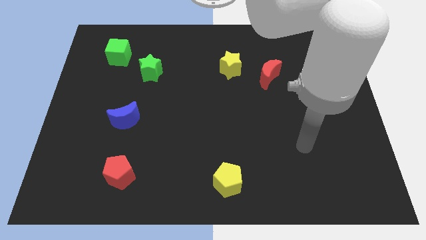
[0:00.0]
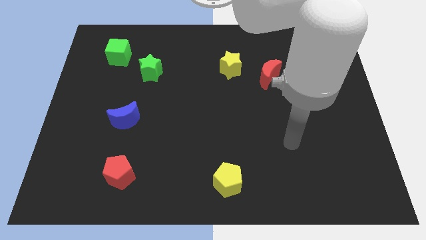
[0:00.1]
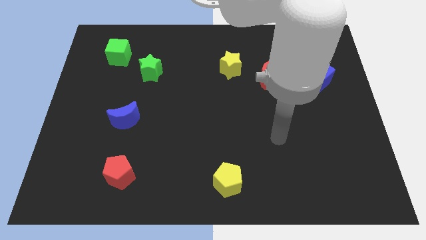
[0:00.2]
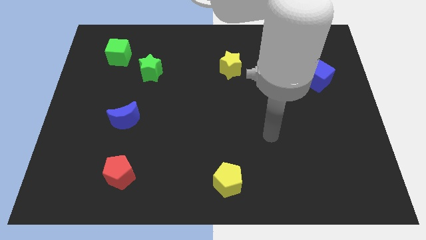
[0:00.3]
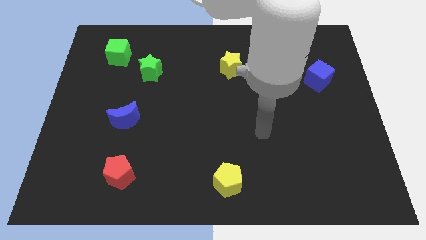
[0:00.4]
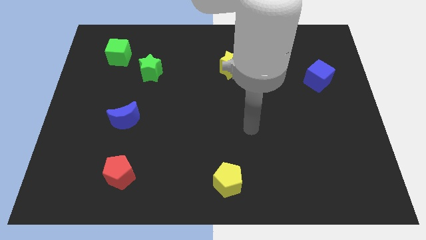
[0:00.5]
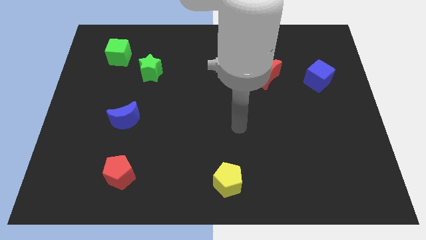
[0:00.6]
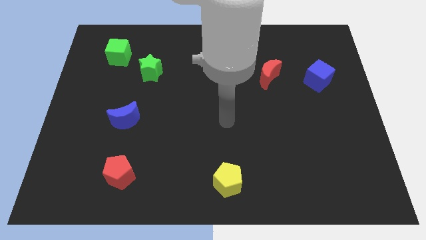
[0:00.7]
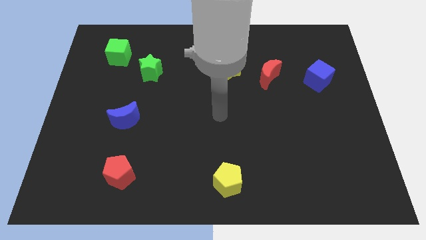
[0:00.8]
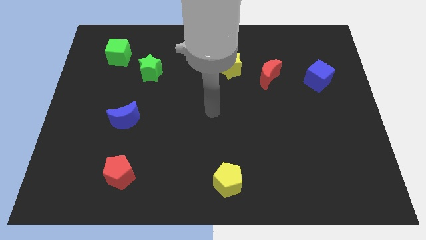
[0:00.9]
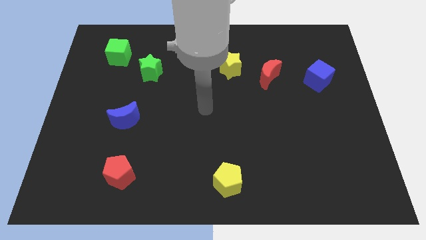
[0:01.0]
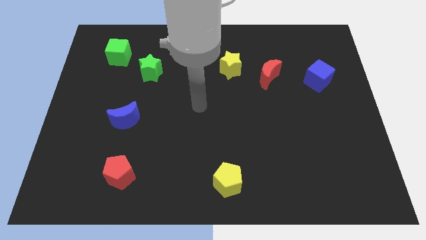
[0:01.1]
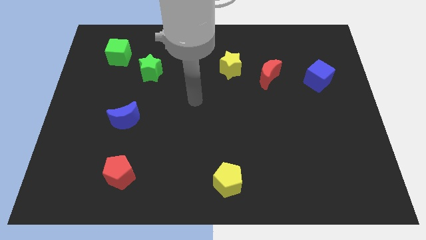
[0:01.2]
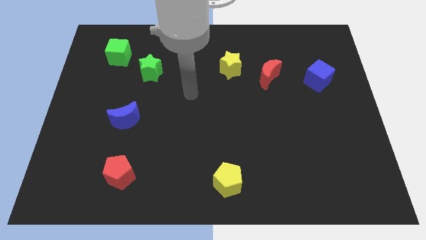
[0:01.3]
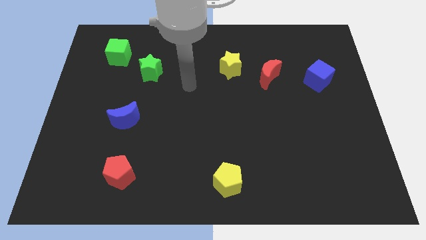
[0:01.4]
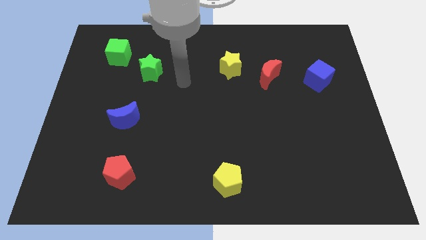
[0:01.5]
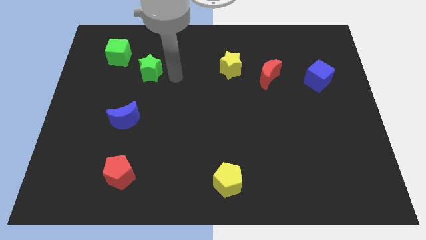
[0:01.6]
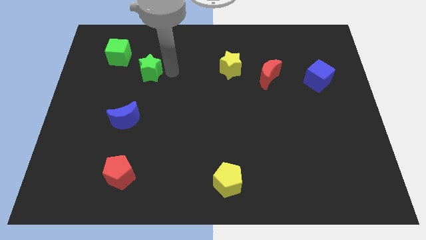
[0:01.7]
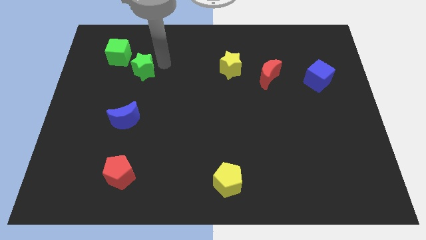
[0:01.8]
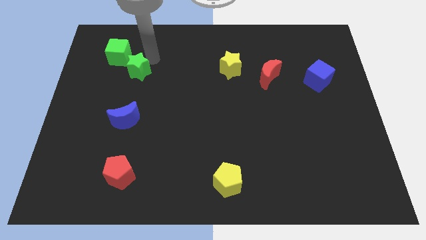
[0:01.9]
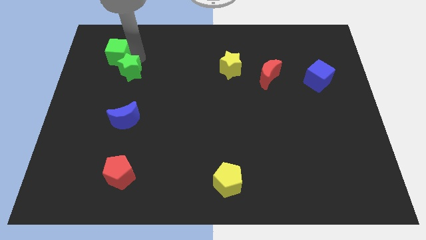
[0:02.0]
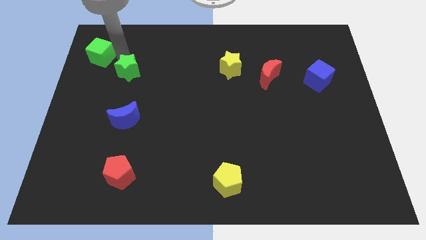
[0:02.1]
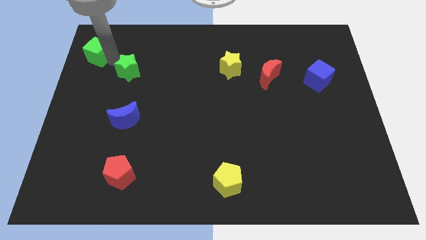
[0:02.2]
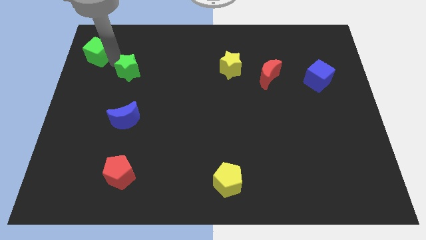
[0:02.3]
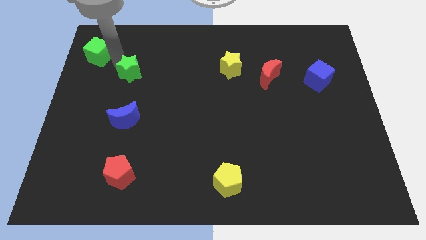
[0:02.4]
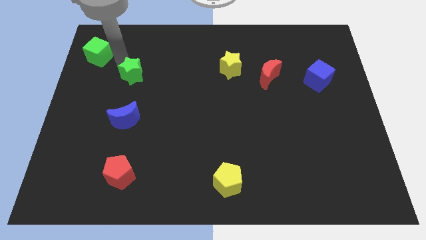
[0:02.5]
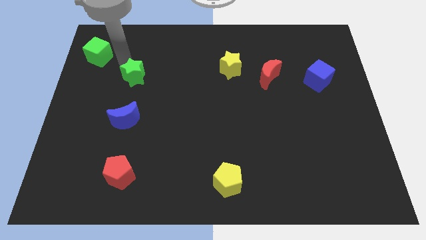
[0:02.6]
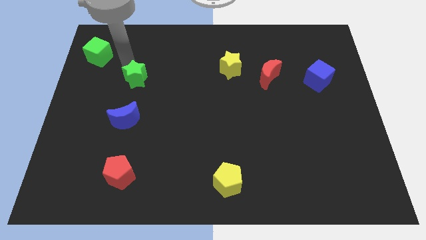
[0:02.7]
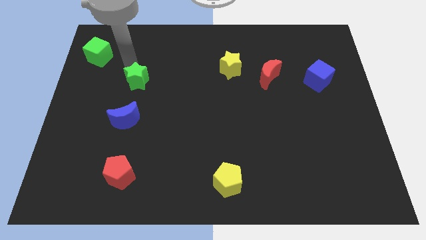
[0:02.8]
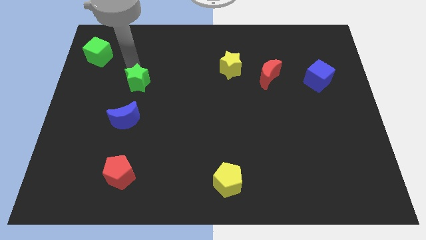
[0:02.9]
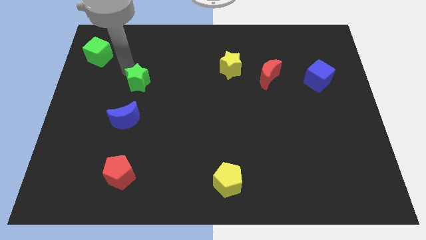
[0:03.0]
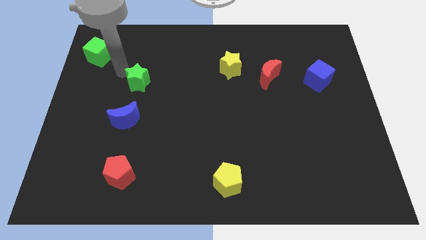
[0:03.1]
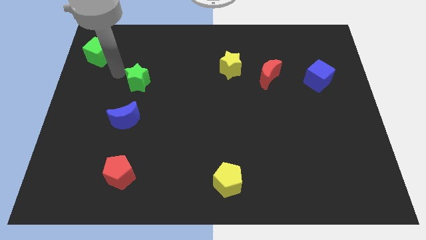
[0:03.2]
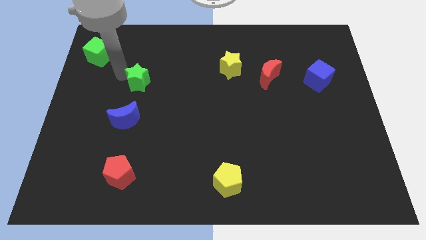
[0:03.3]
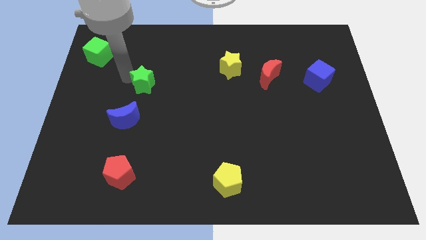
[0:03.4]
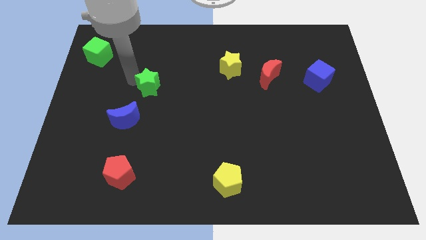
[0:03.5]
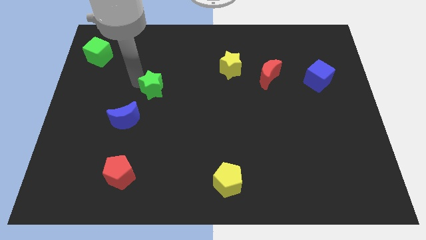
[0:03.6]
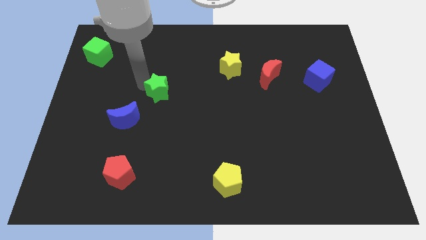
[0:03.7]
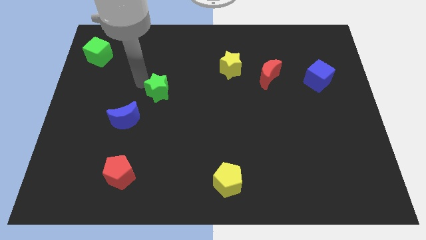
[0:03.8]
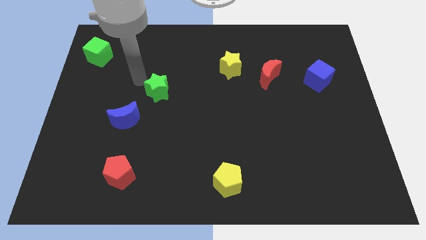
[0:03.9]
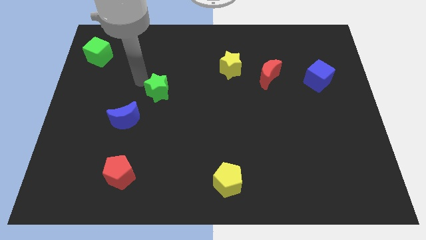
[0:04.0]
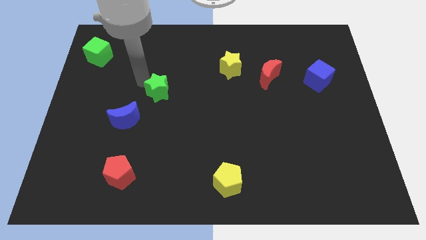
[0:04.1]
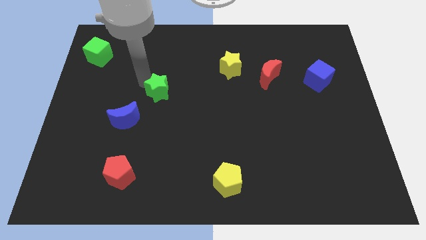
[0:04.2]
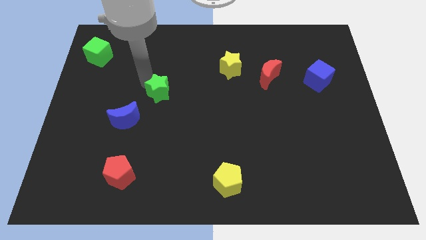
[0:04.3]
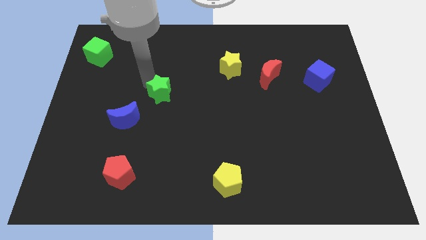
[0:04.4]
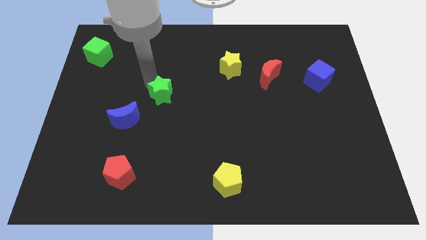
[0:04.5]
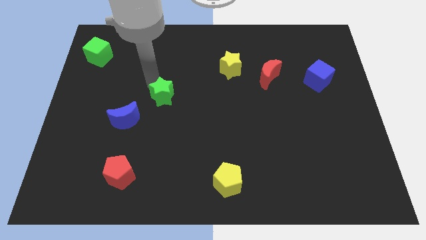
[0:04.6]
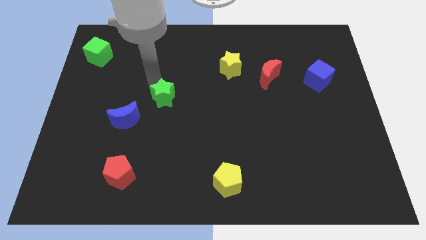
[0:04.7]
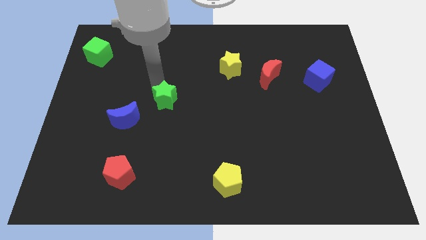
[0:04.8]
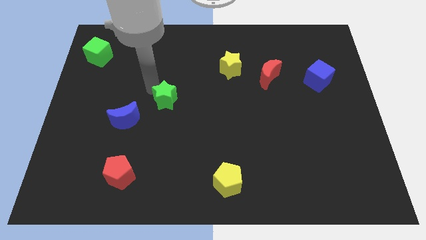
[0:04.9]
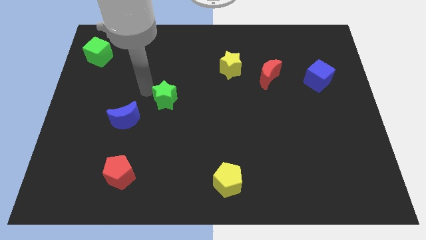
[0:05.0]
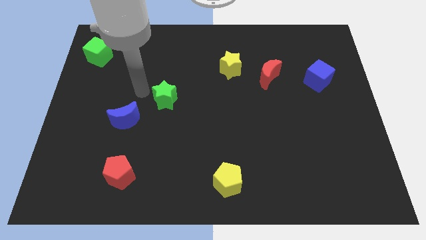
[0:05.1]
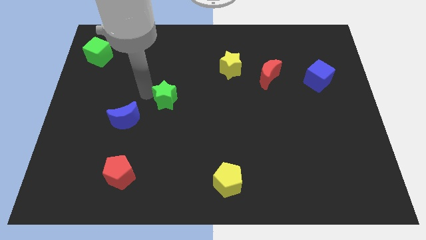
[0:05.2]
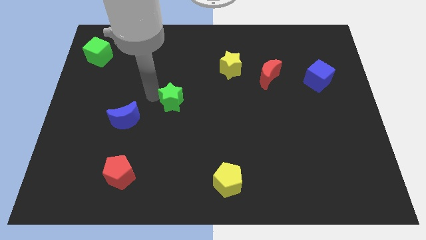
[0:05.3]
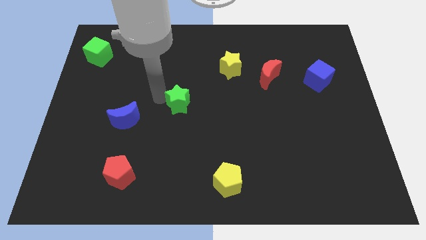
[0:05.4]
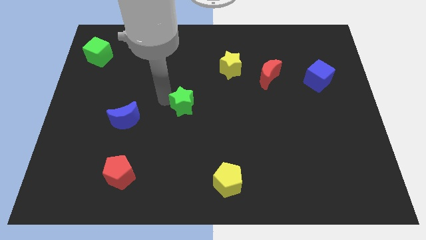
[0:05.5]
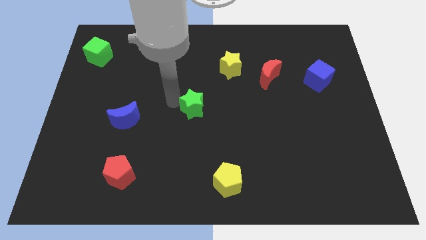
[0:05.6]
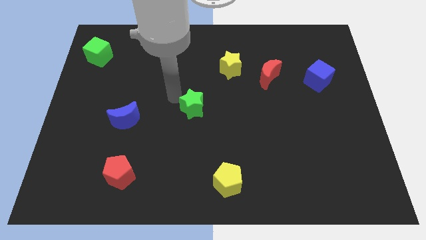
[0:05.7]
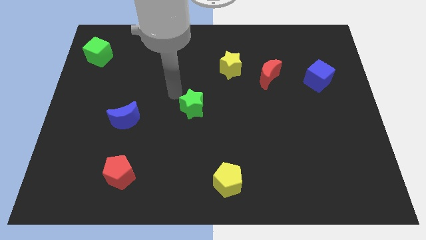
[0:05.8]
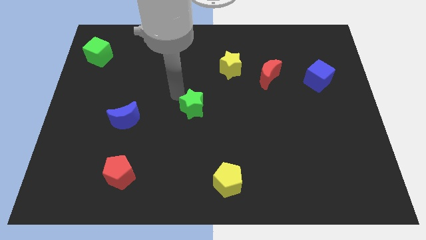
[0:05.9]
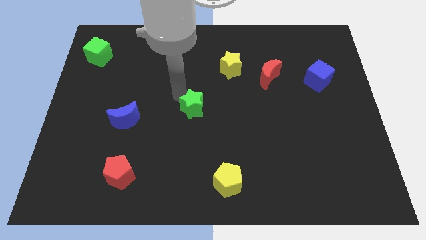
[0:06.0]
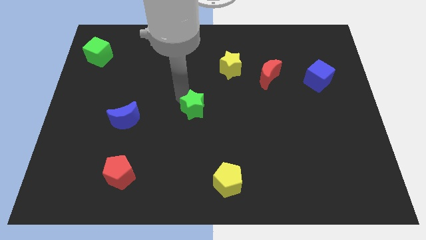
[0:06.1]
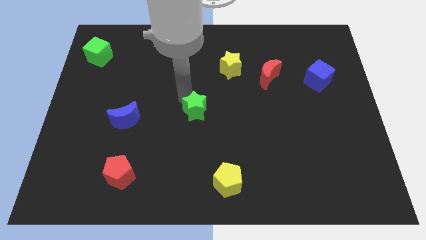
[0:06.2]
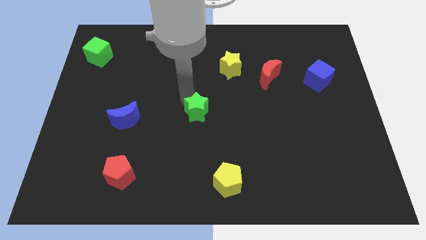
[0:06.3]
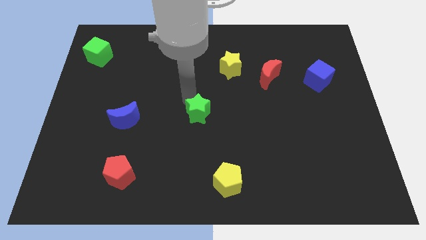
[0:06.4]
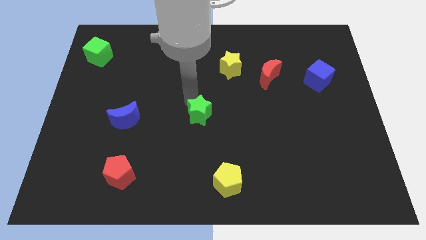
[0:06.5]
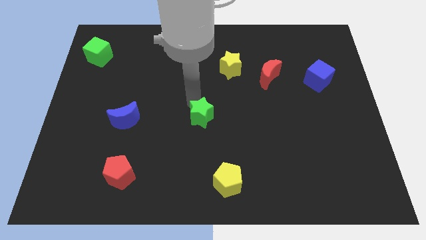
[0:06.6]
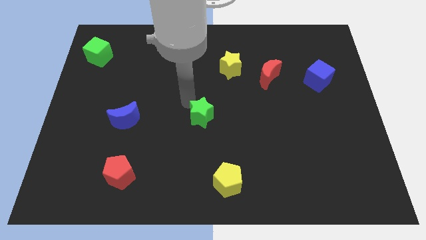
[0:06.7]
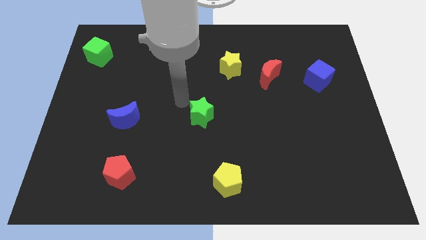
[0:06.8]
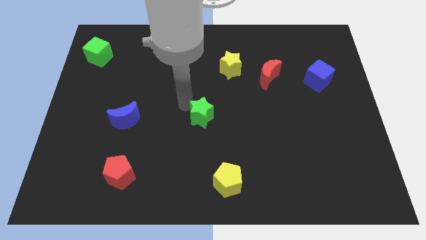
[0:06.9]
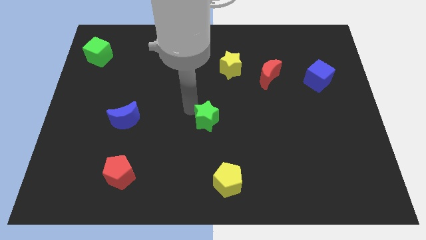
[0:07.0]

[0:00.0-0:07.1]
slide the green star down and right

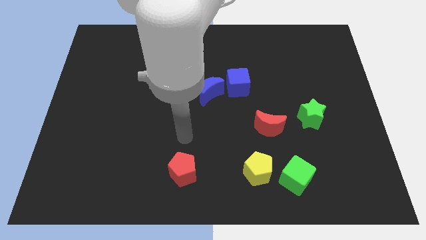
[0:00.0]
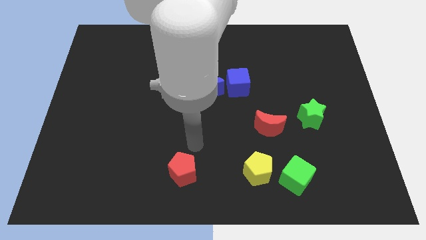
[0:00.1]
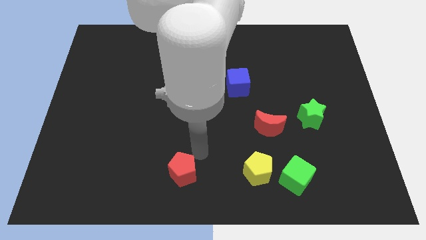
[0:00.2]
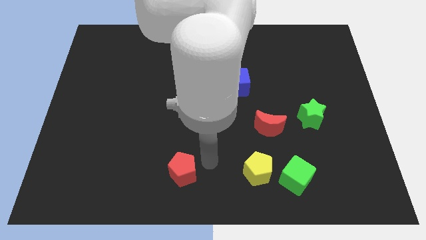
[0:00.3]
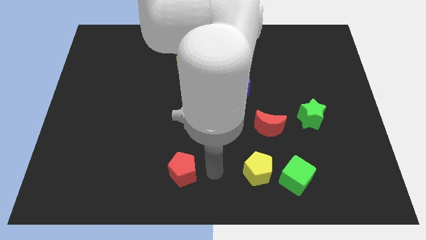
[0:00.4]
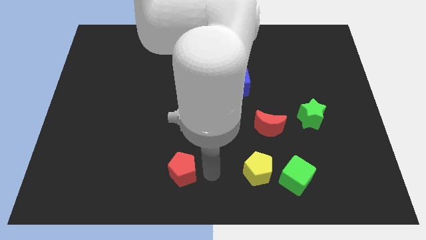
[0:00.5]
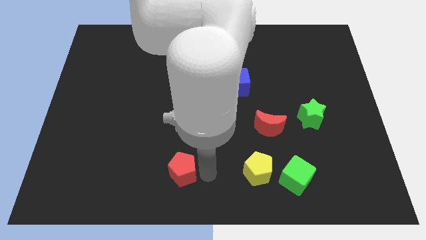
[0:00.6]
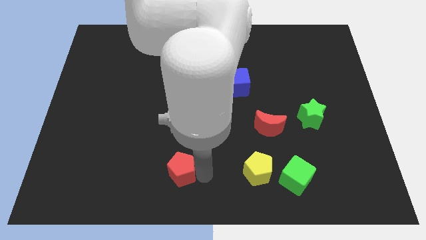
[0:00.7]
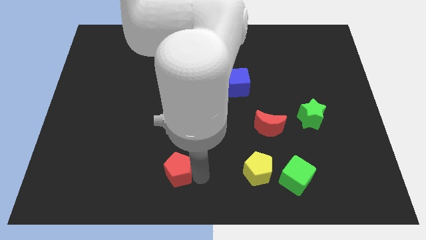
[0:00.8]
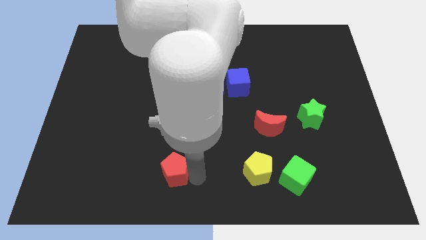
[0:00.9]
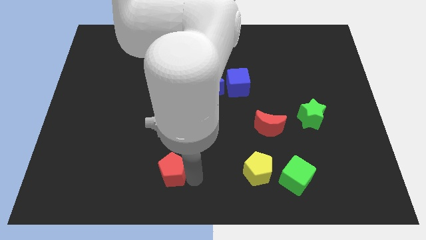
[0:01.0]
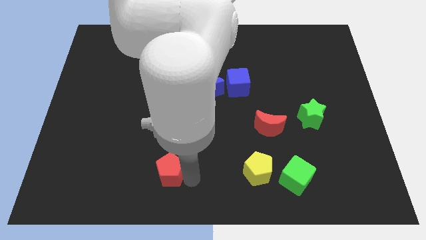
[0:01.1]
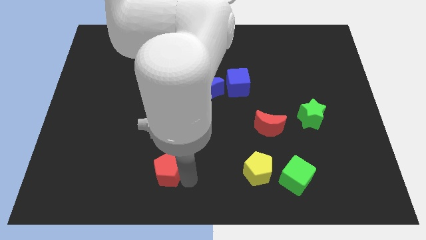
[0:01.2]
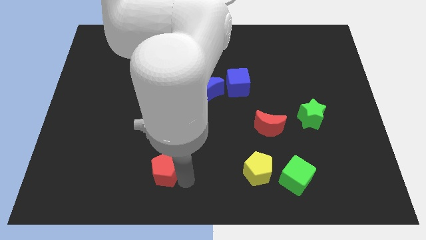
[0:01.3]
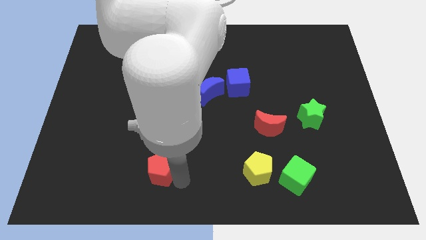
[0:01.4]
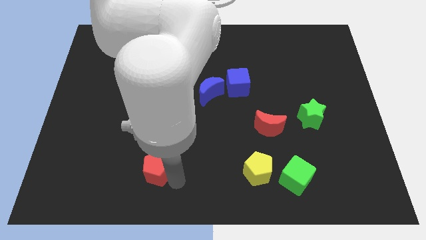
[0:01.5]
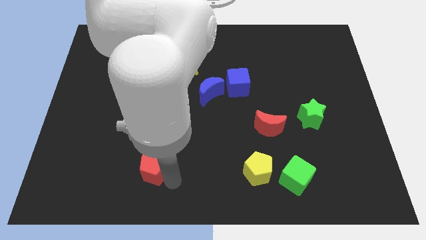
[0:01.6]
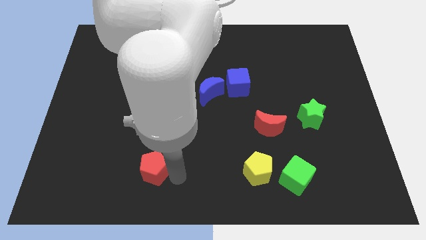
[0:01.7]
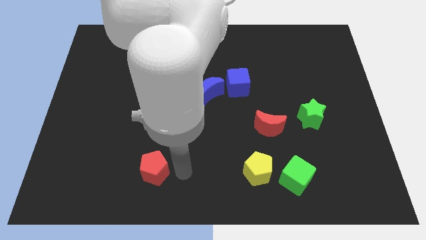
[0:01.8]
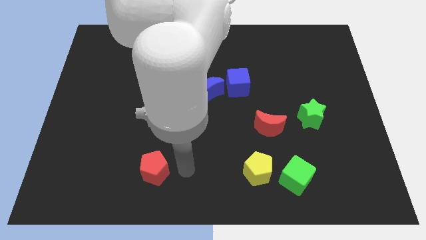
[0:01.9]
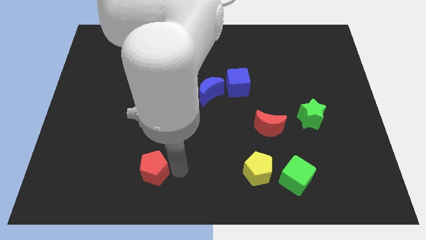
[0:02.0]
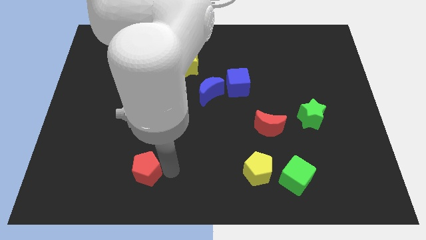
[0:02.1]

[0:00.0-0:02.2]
slide the red pentagon left slightly
